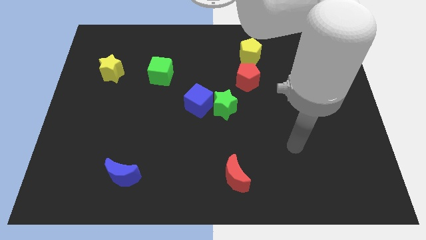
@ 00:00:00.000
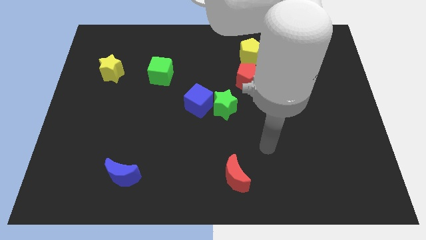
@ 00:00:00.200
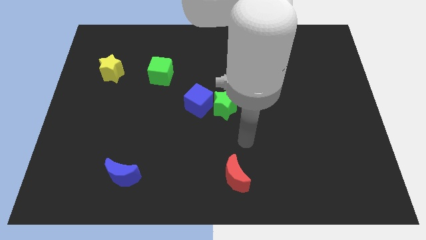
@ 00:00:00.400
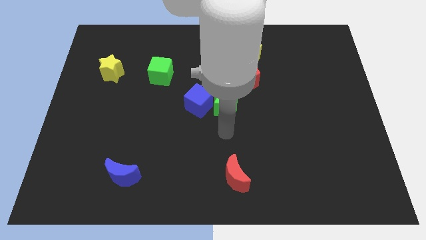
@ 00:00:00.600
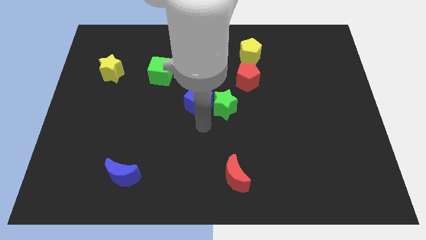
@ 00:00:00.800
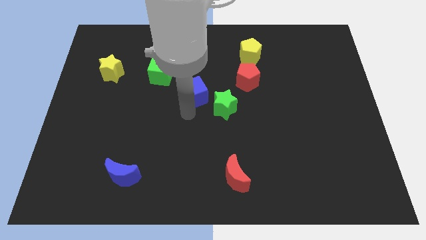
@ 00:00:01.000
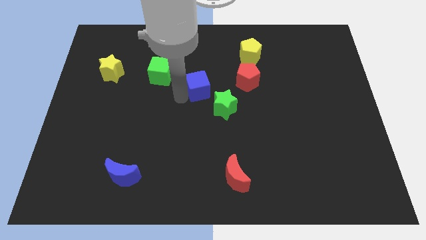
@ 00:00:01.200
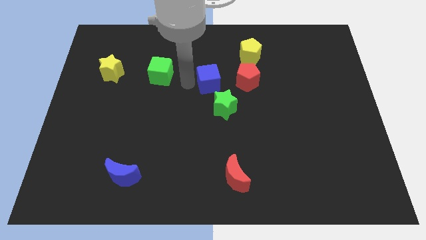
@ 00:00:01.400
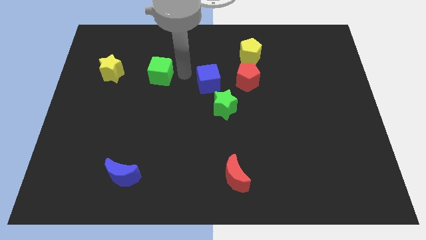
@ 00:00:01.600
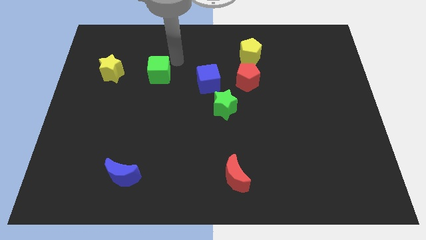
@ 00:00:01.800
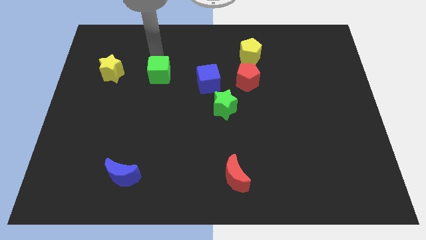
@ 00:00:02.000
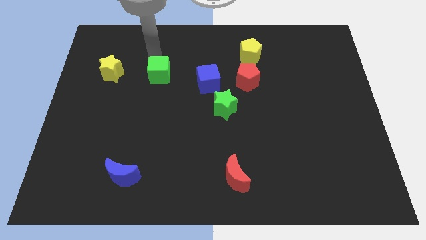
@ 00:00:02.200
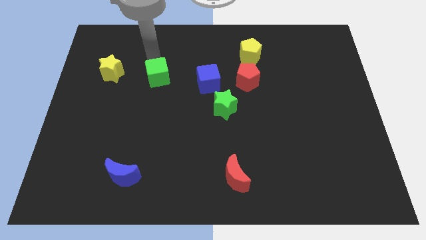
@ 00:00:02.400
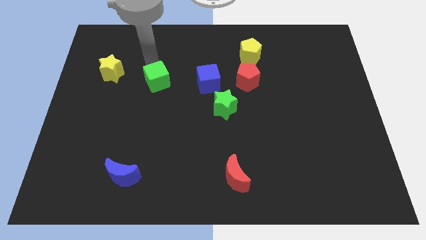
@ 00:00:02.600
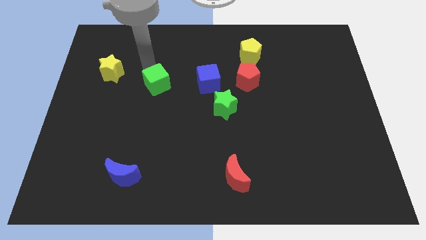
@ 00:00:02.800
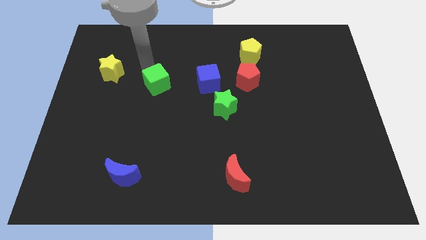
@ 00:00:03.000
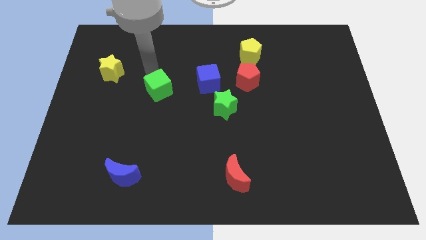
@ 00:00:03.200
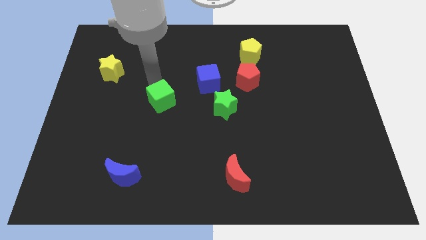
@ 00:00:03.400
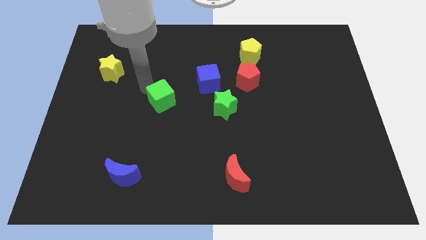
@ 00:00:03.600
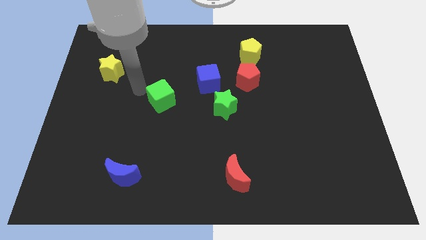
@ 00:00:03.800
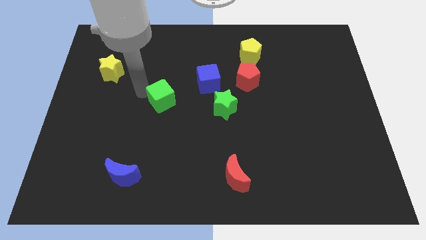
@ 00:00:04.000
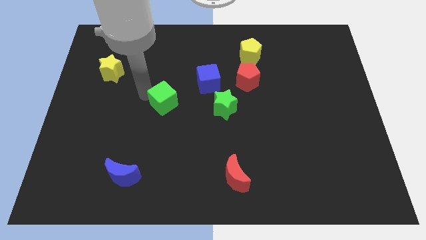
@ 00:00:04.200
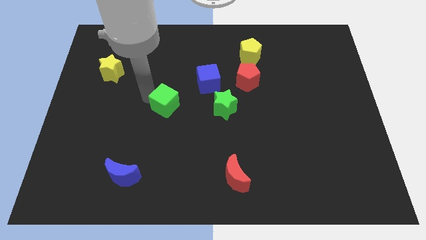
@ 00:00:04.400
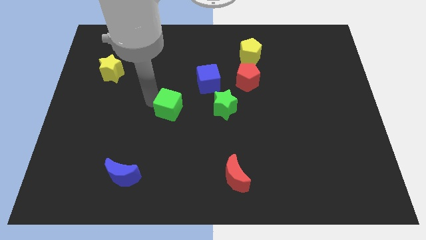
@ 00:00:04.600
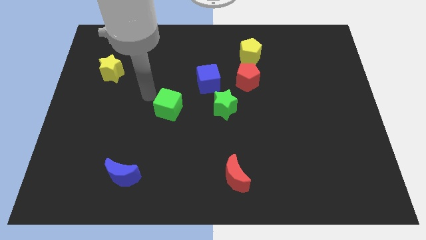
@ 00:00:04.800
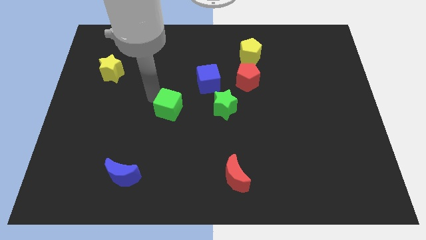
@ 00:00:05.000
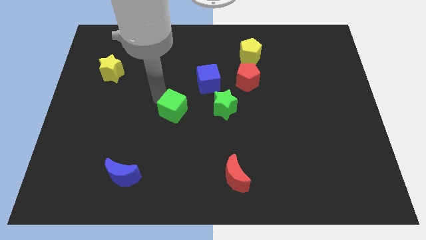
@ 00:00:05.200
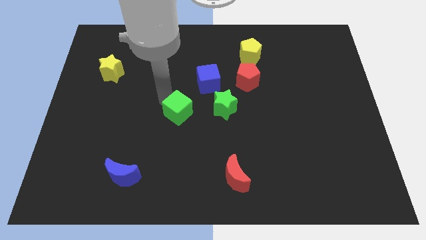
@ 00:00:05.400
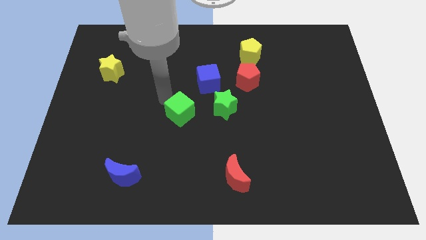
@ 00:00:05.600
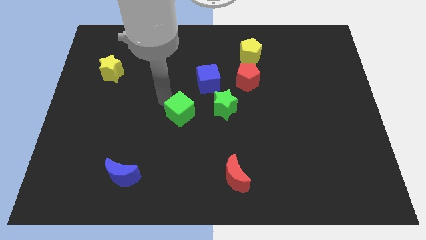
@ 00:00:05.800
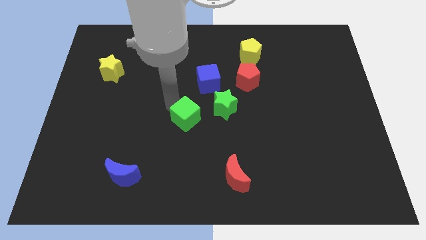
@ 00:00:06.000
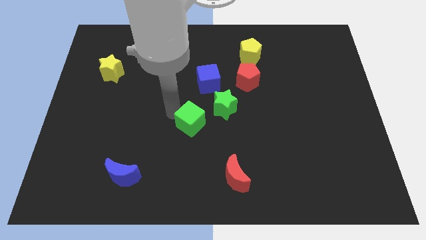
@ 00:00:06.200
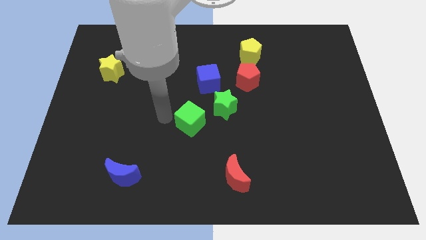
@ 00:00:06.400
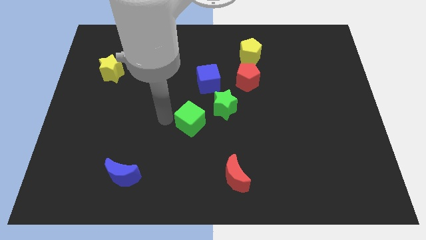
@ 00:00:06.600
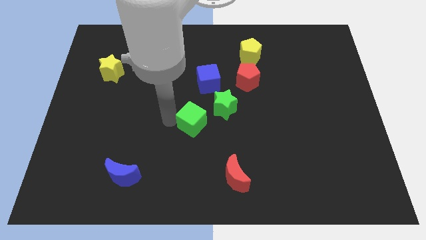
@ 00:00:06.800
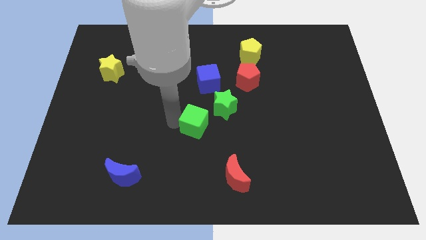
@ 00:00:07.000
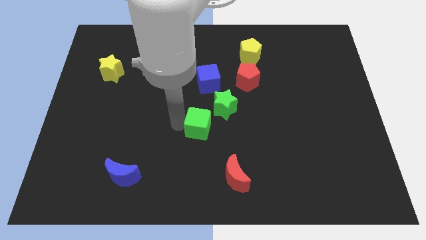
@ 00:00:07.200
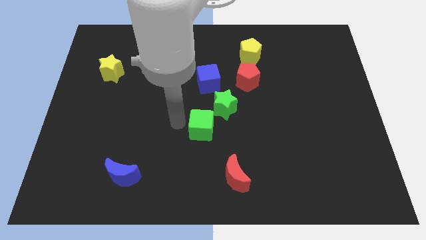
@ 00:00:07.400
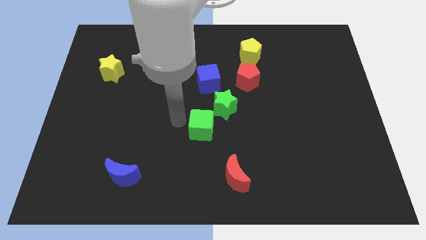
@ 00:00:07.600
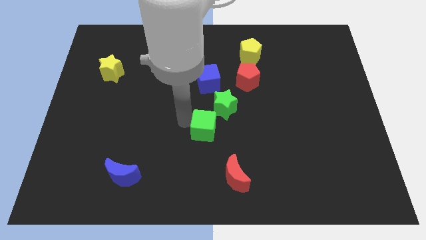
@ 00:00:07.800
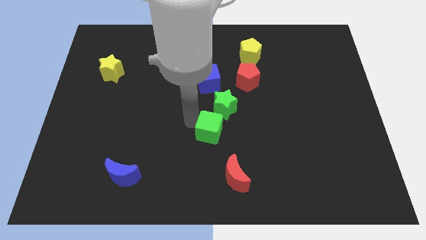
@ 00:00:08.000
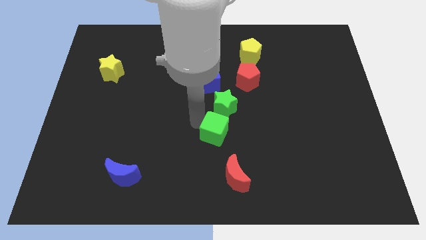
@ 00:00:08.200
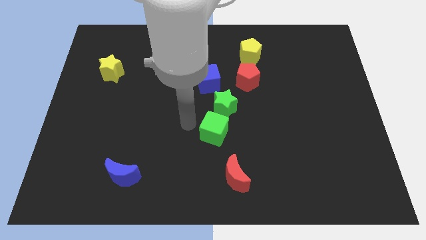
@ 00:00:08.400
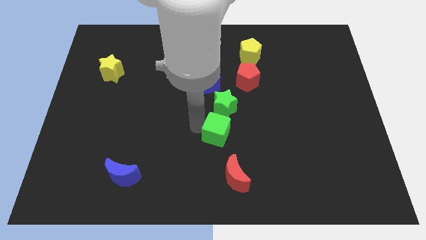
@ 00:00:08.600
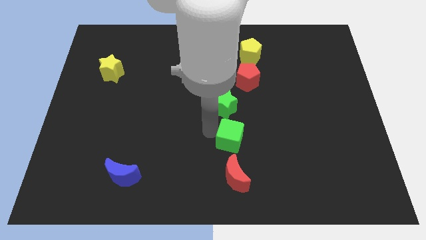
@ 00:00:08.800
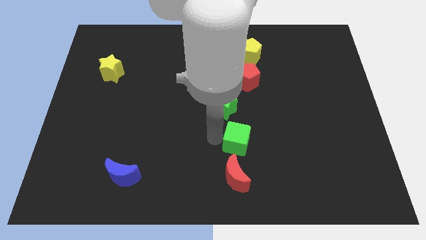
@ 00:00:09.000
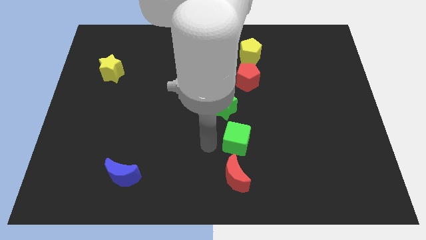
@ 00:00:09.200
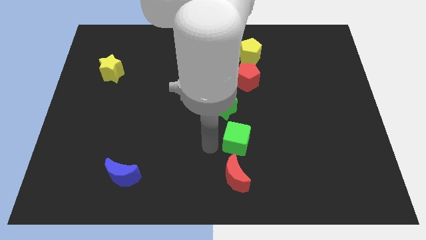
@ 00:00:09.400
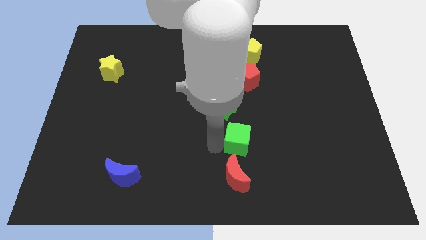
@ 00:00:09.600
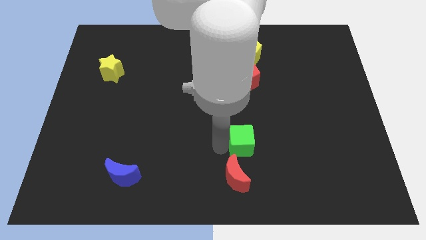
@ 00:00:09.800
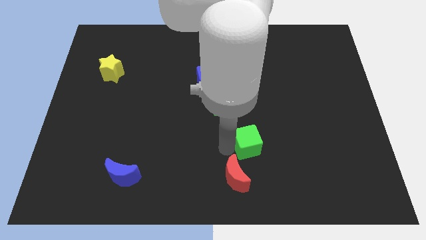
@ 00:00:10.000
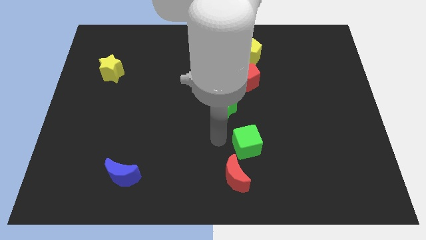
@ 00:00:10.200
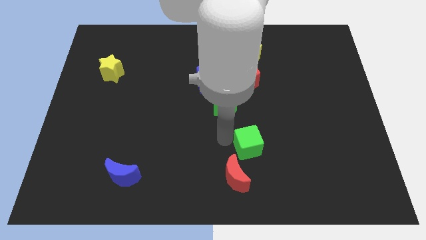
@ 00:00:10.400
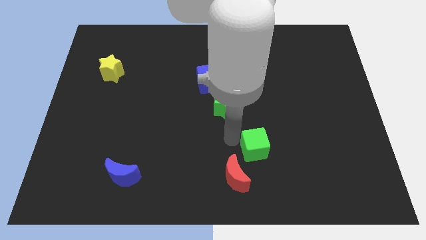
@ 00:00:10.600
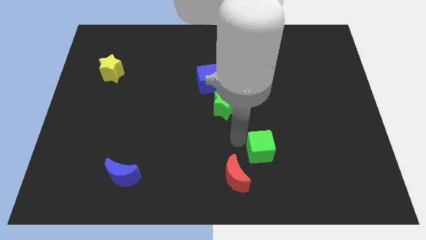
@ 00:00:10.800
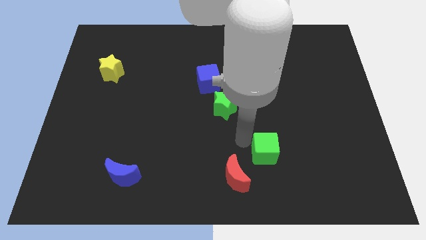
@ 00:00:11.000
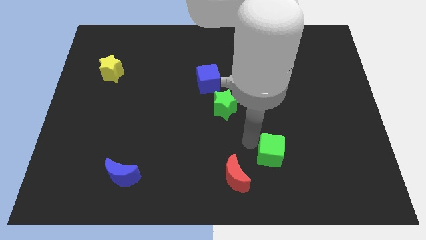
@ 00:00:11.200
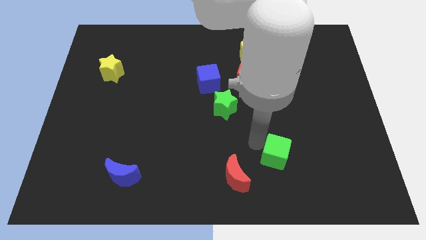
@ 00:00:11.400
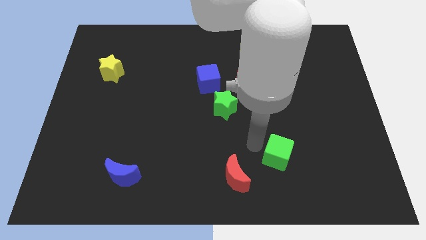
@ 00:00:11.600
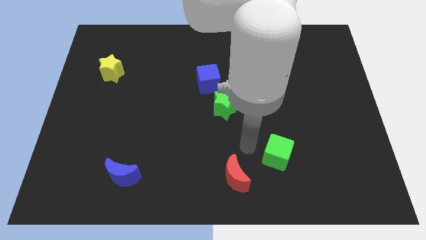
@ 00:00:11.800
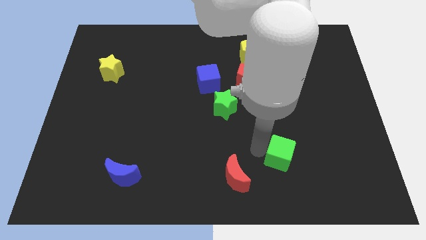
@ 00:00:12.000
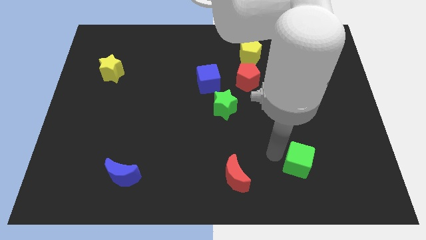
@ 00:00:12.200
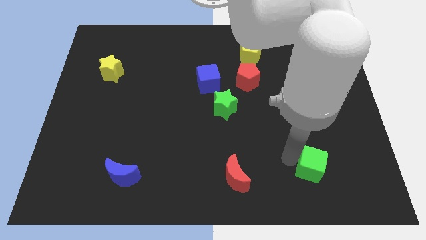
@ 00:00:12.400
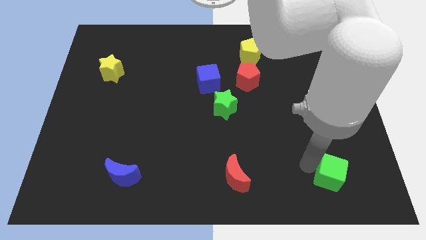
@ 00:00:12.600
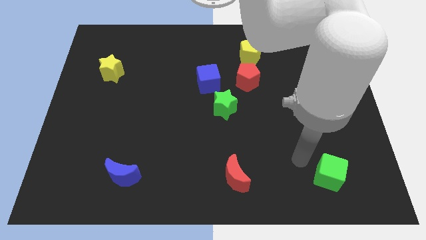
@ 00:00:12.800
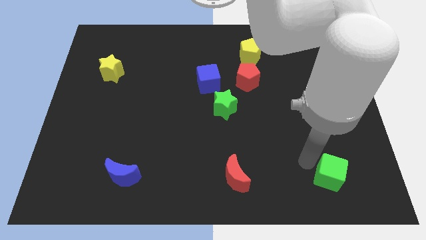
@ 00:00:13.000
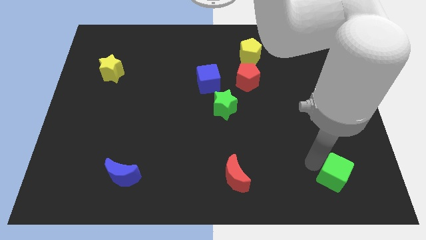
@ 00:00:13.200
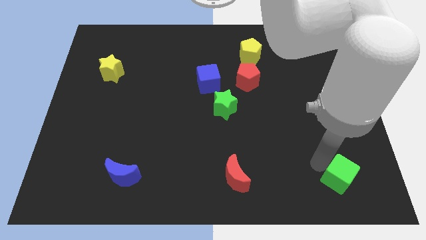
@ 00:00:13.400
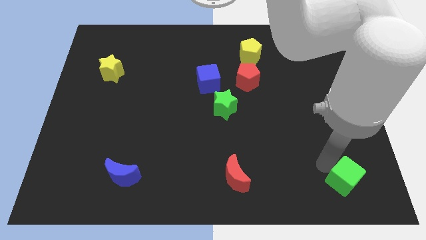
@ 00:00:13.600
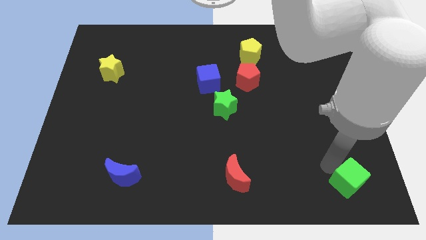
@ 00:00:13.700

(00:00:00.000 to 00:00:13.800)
move the green cube to the bottom right
